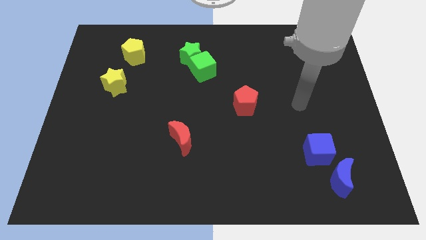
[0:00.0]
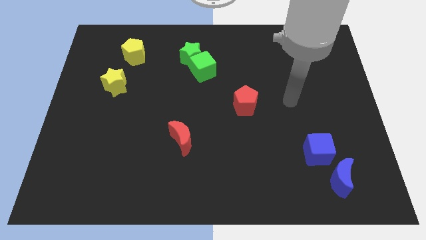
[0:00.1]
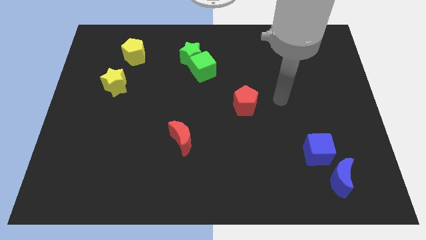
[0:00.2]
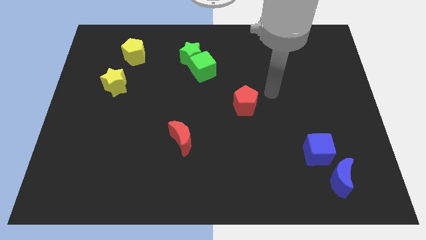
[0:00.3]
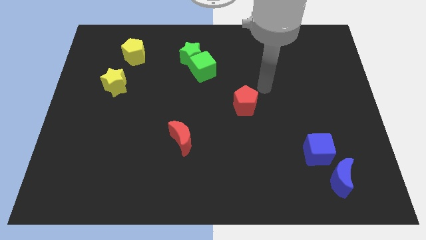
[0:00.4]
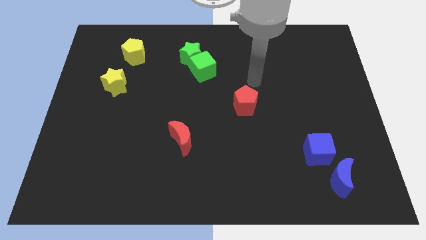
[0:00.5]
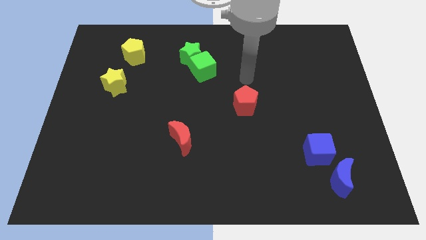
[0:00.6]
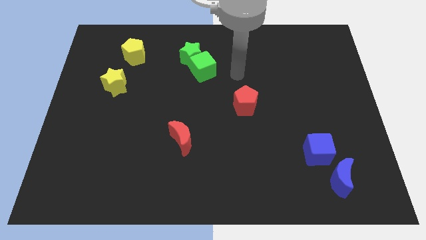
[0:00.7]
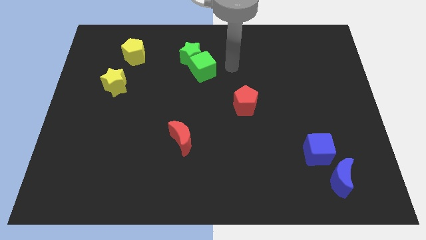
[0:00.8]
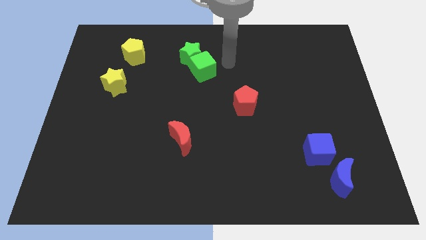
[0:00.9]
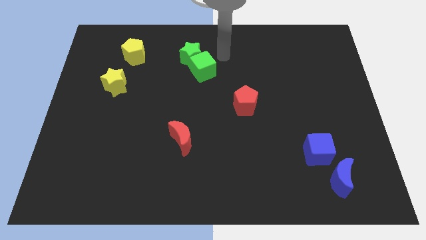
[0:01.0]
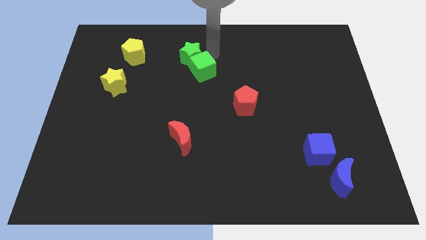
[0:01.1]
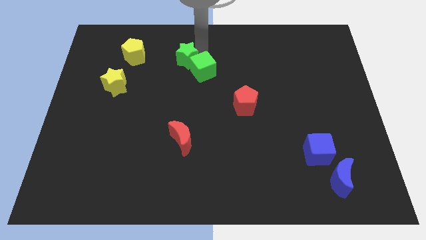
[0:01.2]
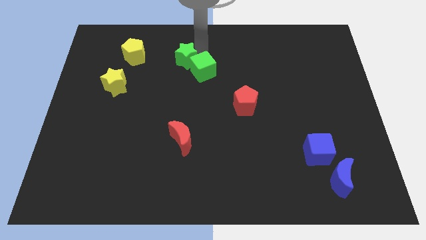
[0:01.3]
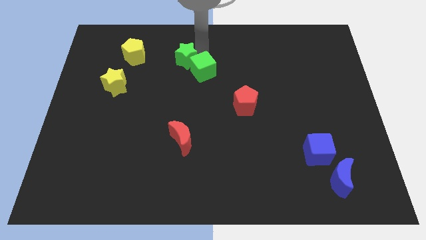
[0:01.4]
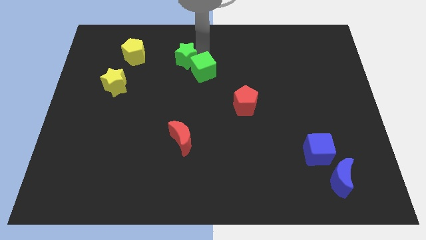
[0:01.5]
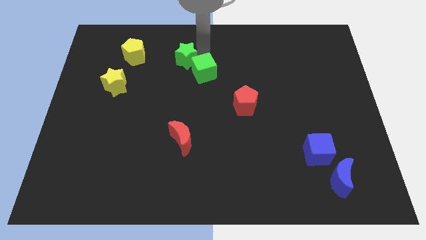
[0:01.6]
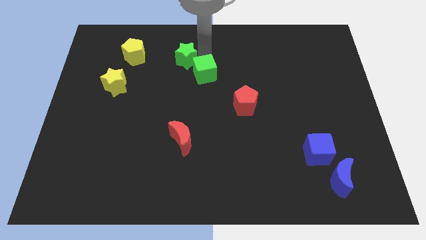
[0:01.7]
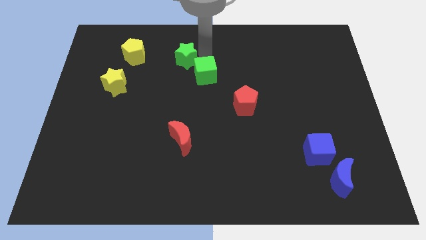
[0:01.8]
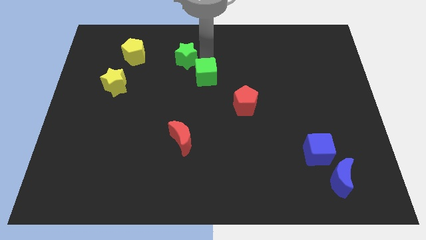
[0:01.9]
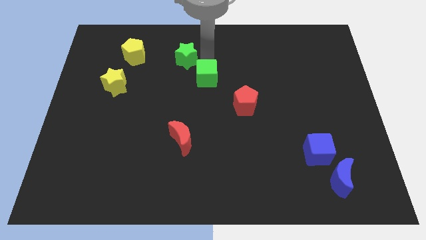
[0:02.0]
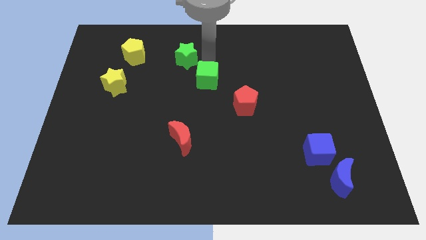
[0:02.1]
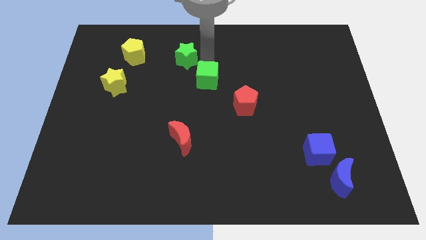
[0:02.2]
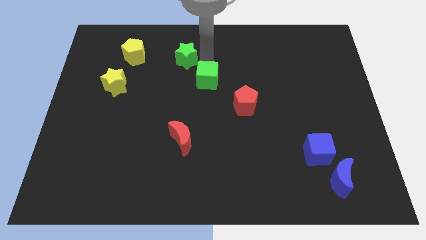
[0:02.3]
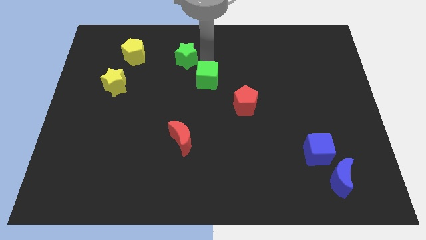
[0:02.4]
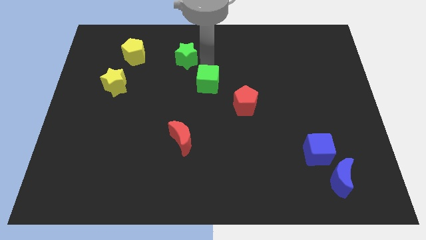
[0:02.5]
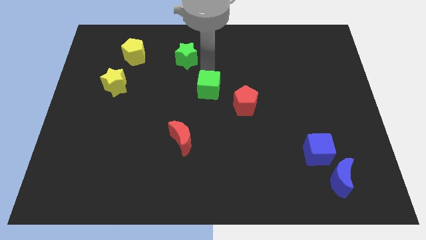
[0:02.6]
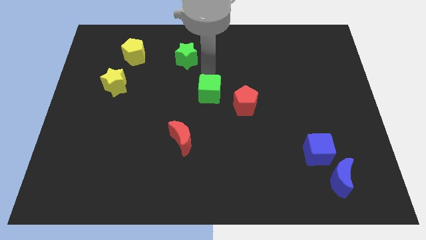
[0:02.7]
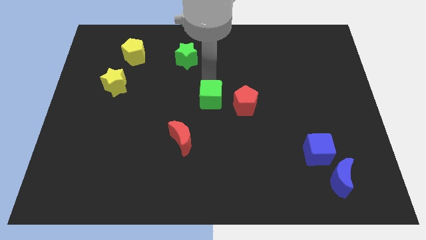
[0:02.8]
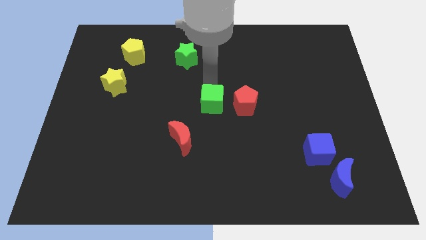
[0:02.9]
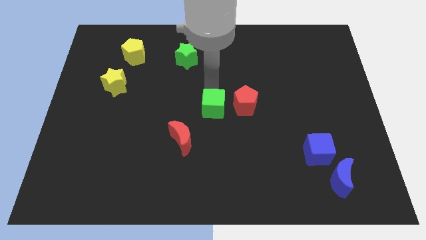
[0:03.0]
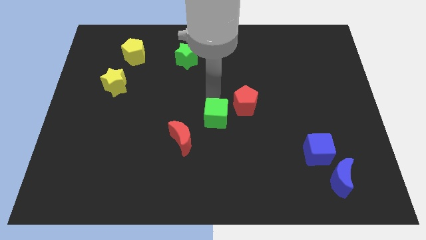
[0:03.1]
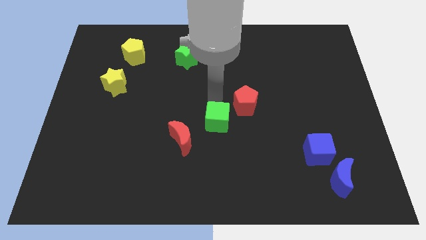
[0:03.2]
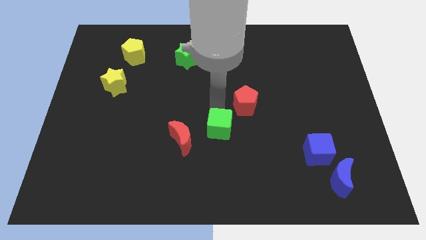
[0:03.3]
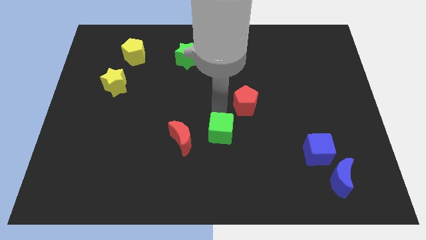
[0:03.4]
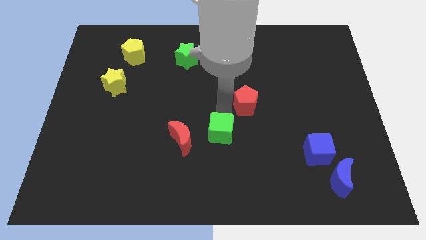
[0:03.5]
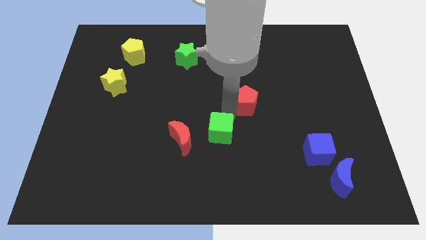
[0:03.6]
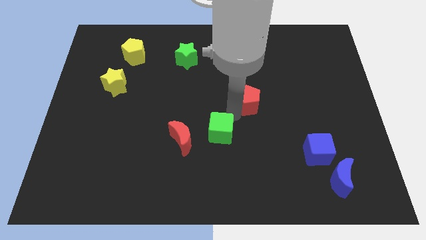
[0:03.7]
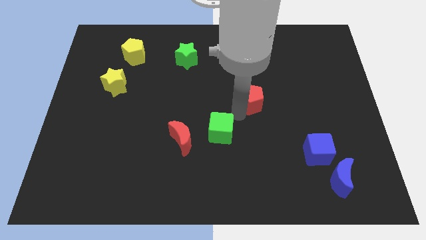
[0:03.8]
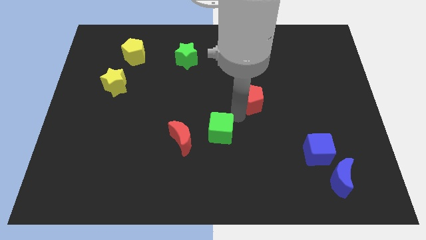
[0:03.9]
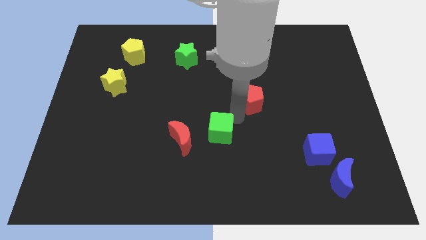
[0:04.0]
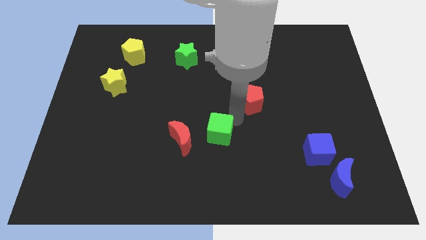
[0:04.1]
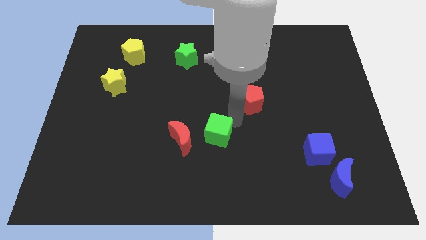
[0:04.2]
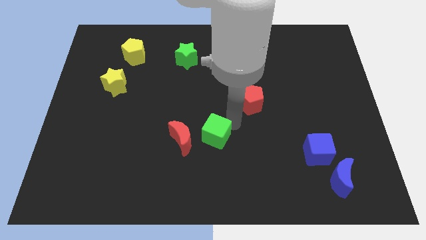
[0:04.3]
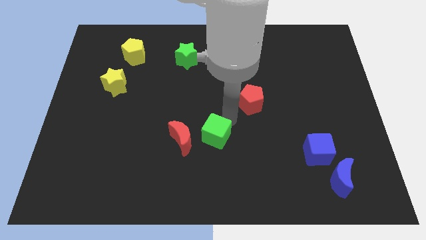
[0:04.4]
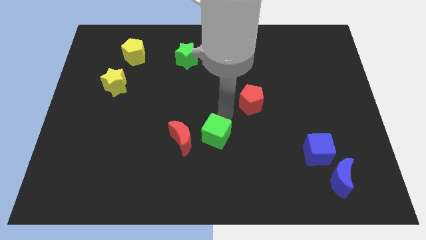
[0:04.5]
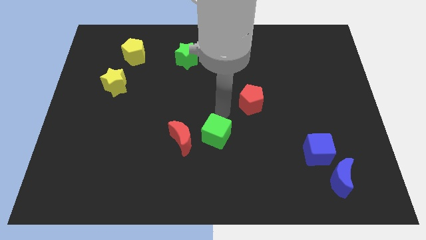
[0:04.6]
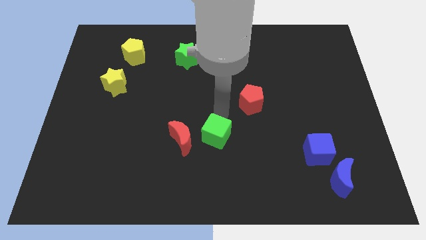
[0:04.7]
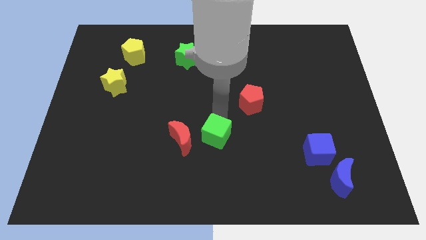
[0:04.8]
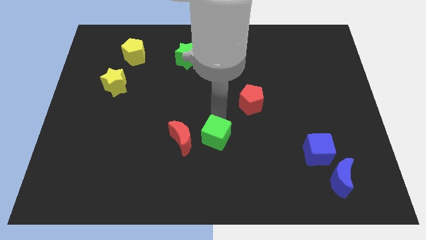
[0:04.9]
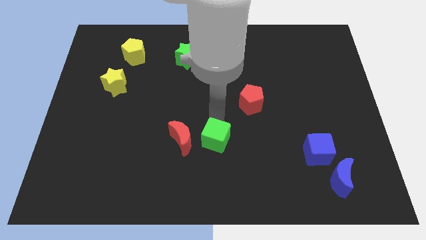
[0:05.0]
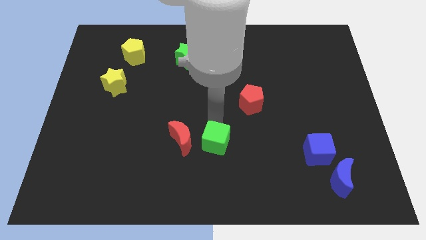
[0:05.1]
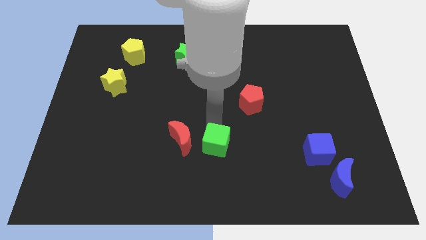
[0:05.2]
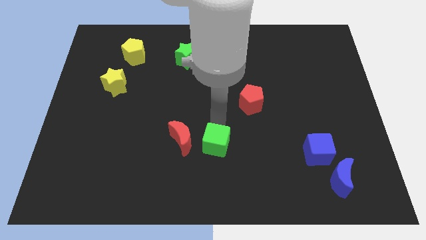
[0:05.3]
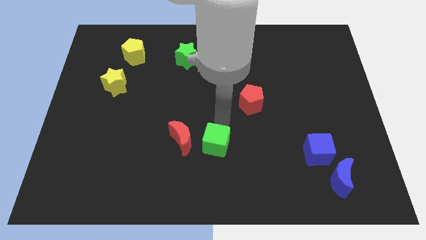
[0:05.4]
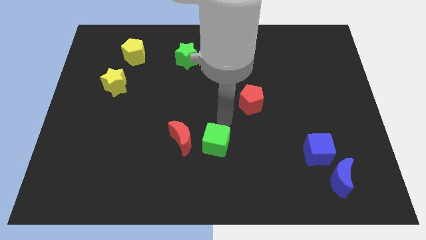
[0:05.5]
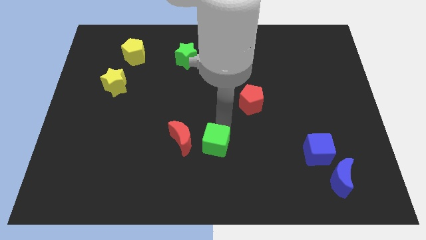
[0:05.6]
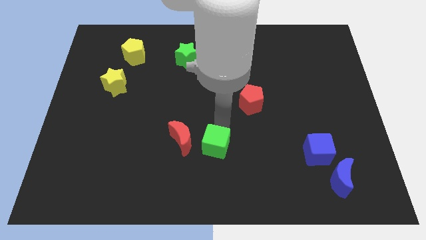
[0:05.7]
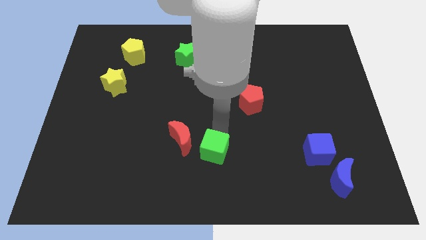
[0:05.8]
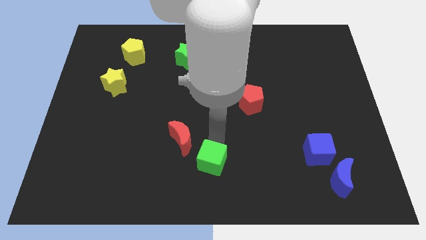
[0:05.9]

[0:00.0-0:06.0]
move the green cube to the bottom side

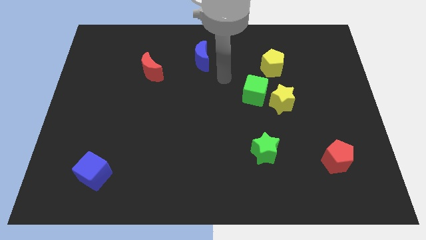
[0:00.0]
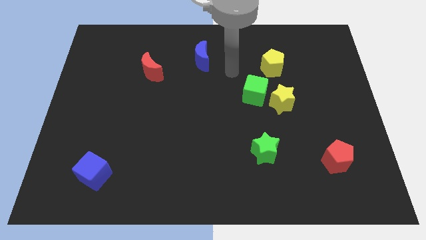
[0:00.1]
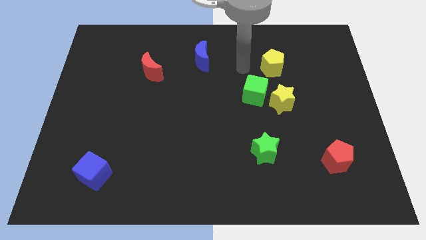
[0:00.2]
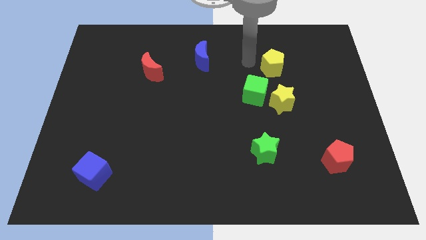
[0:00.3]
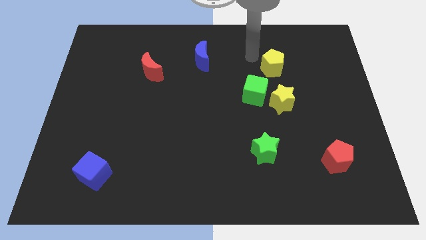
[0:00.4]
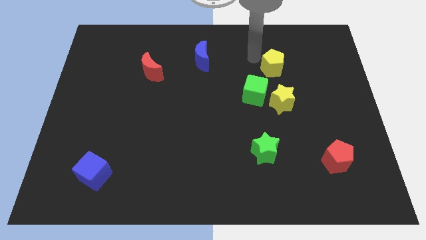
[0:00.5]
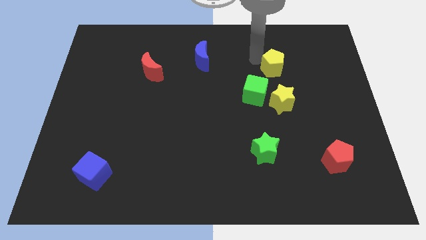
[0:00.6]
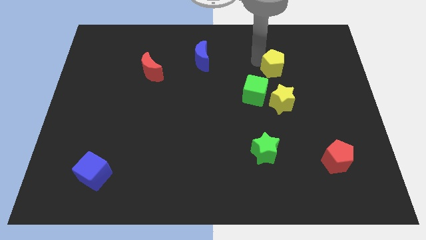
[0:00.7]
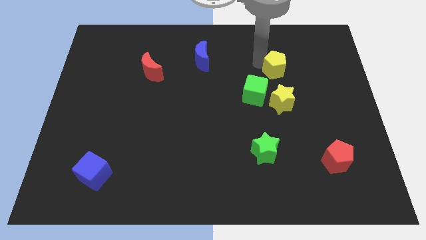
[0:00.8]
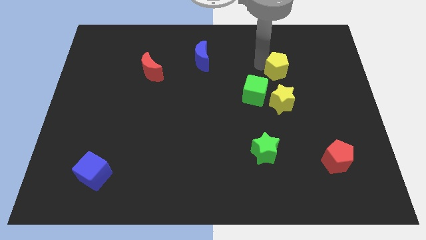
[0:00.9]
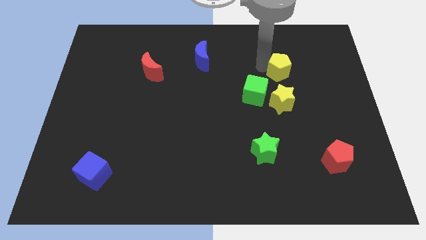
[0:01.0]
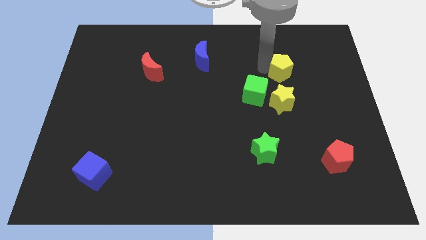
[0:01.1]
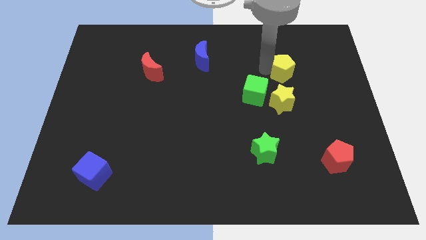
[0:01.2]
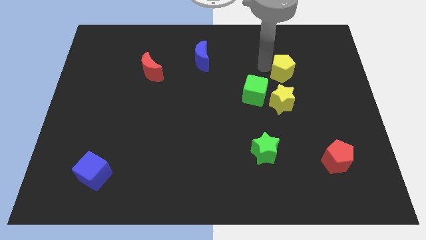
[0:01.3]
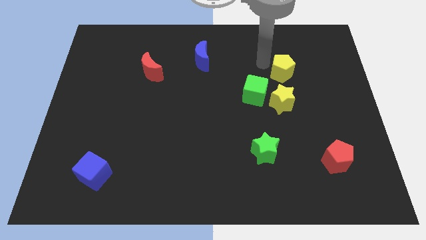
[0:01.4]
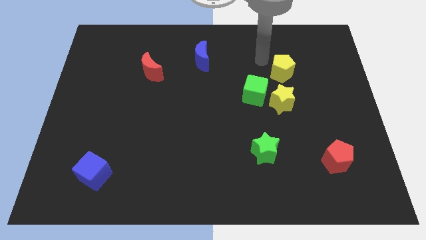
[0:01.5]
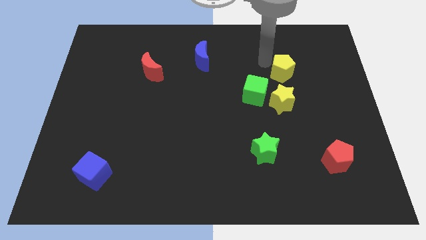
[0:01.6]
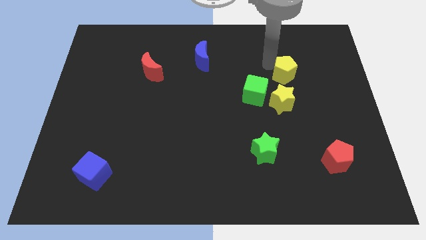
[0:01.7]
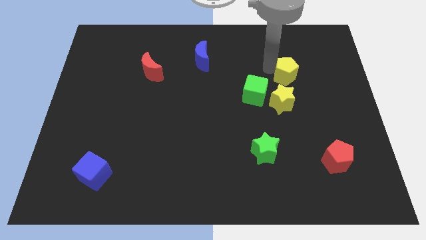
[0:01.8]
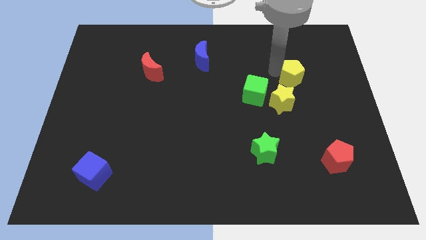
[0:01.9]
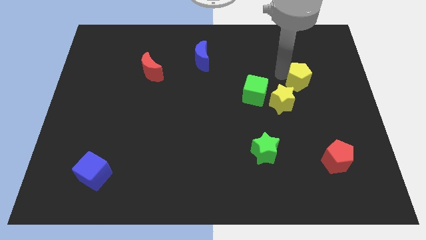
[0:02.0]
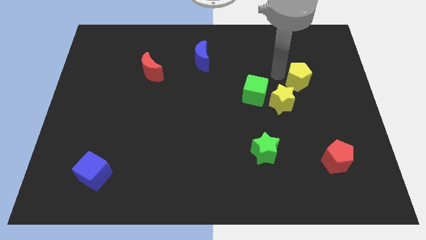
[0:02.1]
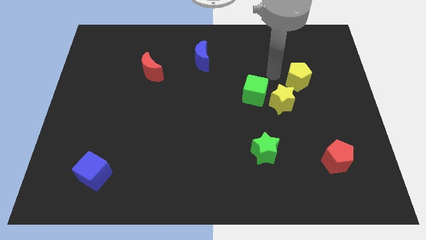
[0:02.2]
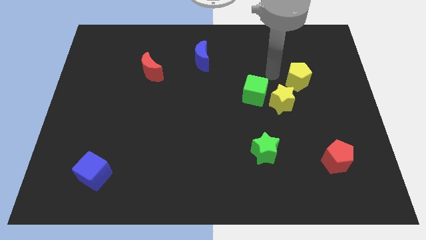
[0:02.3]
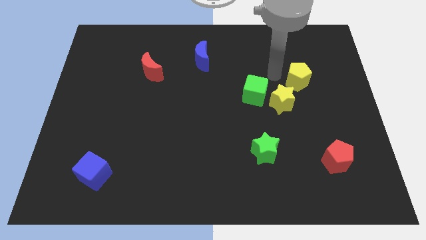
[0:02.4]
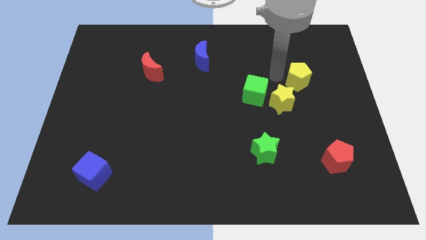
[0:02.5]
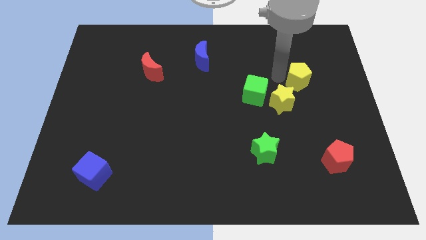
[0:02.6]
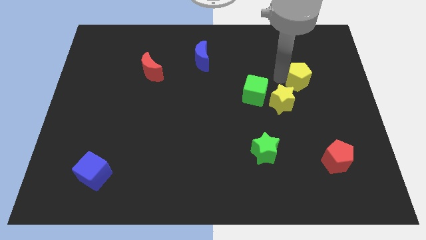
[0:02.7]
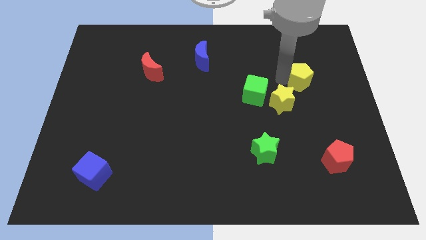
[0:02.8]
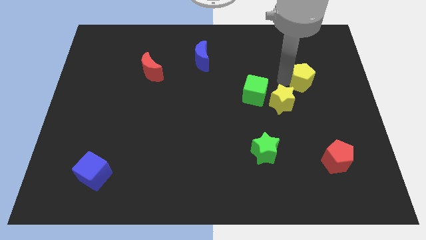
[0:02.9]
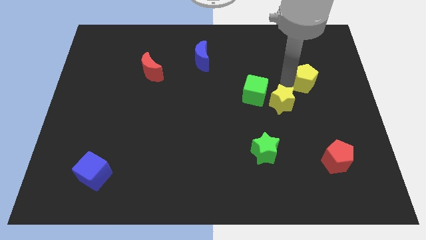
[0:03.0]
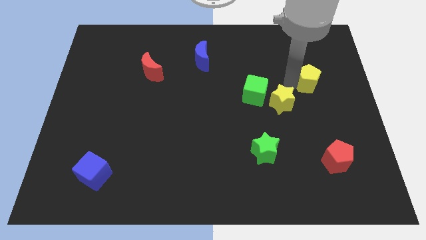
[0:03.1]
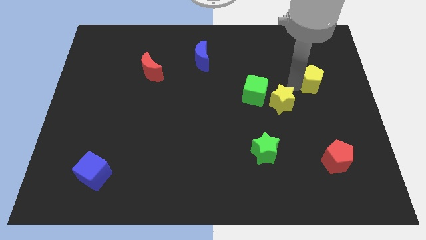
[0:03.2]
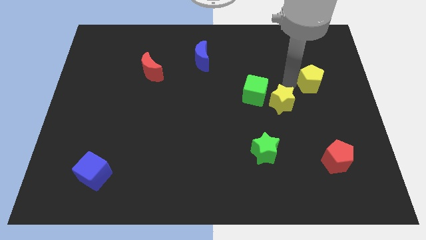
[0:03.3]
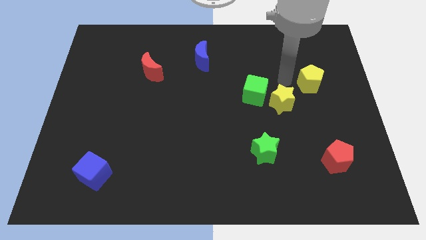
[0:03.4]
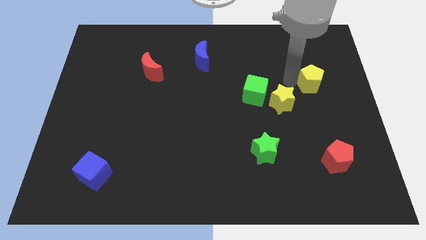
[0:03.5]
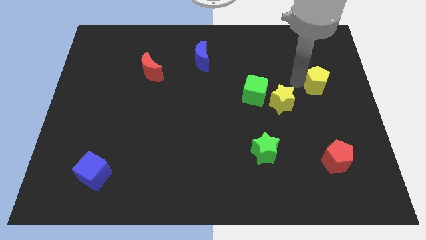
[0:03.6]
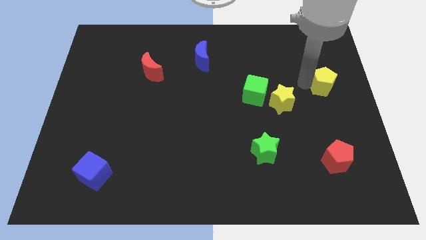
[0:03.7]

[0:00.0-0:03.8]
slide the yellow pentagon to the right side of the board
